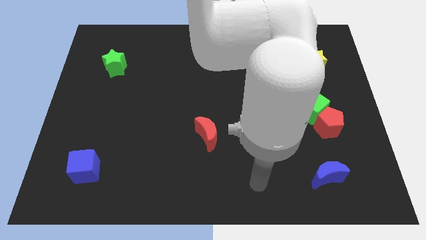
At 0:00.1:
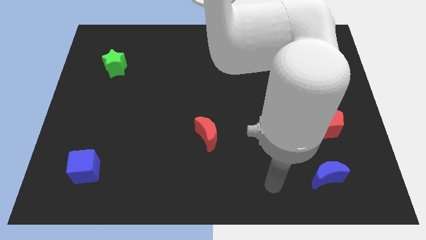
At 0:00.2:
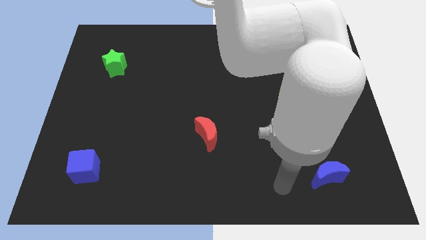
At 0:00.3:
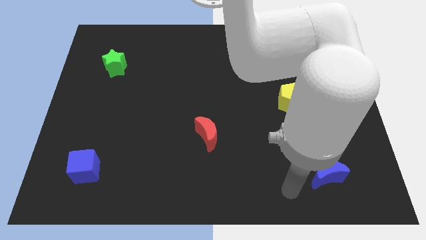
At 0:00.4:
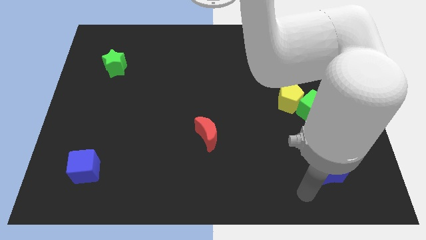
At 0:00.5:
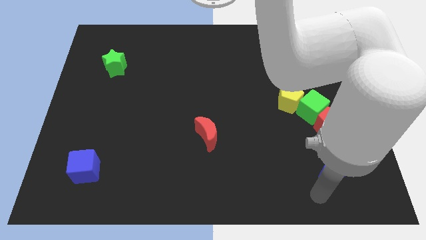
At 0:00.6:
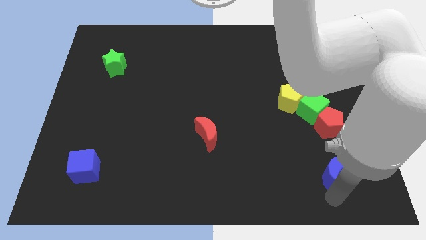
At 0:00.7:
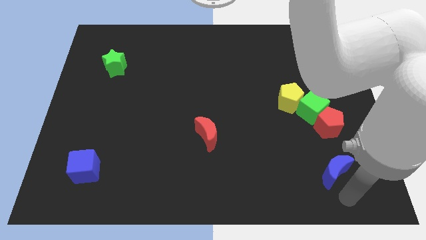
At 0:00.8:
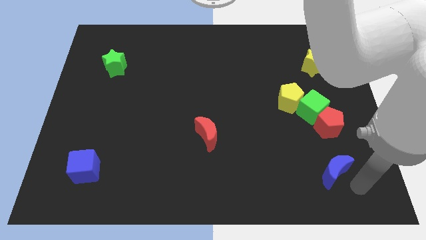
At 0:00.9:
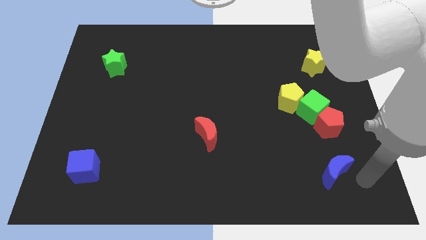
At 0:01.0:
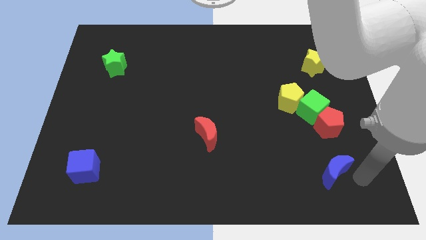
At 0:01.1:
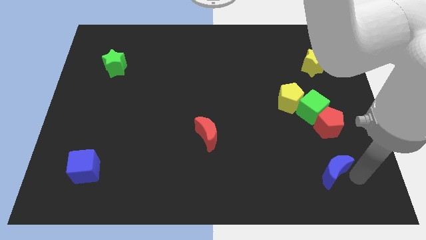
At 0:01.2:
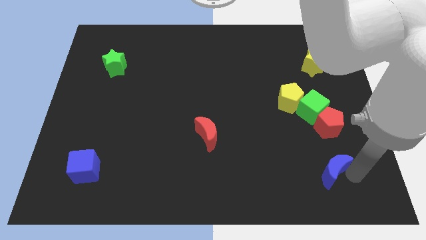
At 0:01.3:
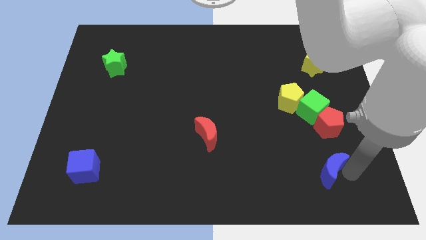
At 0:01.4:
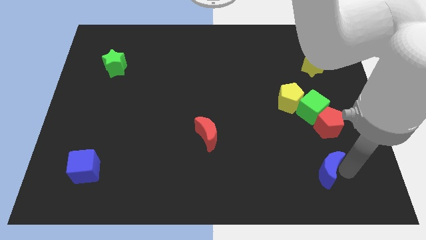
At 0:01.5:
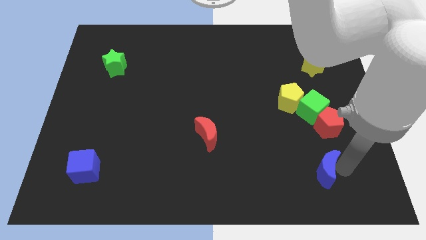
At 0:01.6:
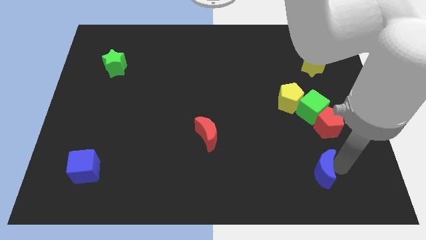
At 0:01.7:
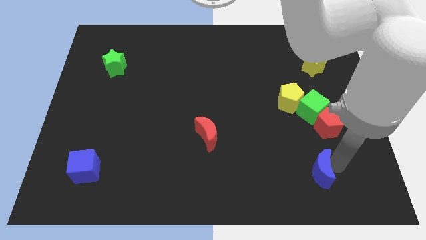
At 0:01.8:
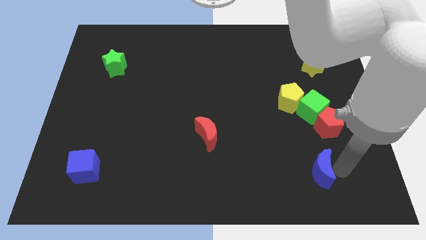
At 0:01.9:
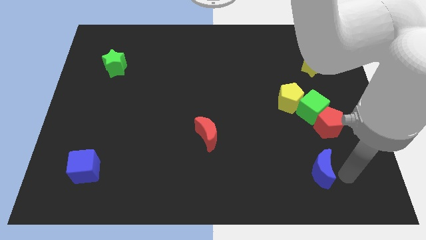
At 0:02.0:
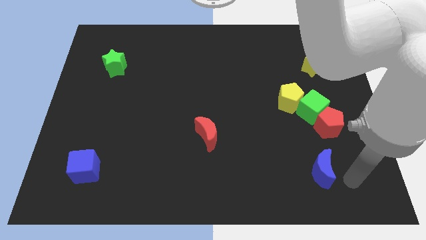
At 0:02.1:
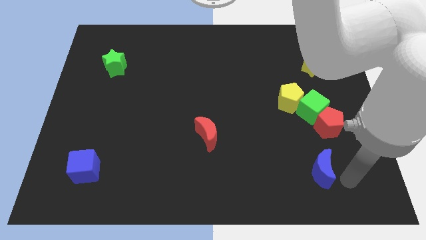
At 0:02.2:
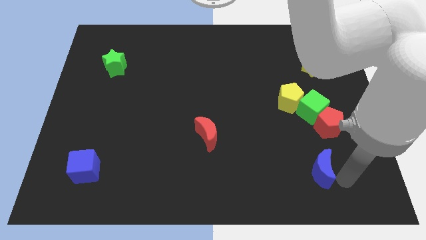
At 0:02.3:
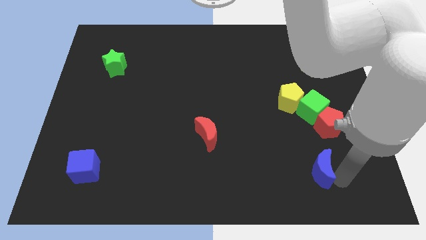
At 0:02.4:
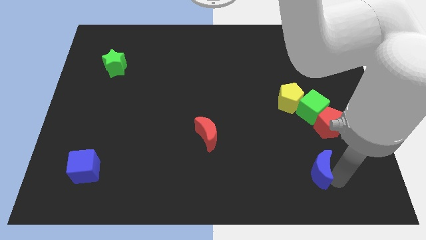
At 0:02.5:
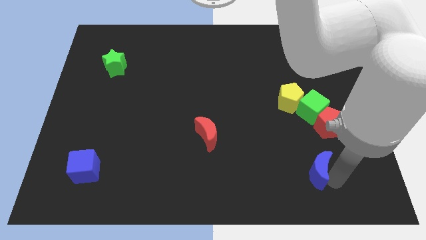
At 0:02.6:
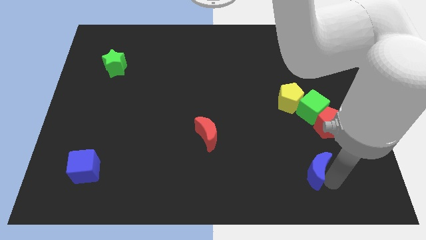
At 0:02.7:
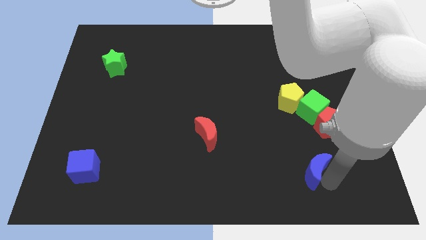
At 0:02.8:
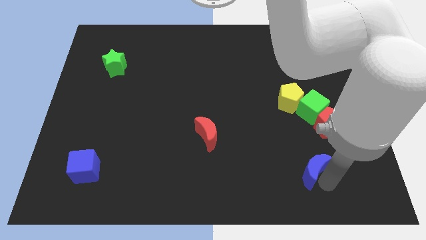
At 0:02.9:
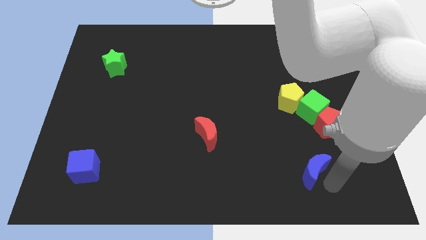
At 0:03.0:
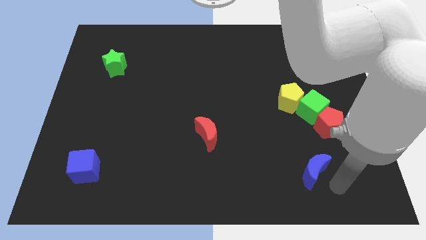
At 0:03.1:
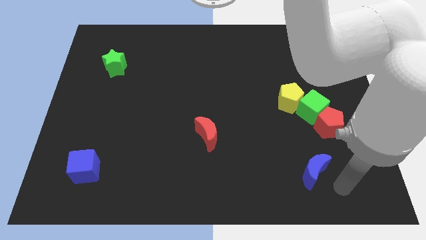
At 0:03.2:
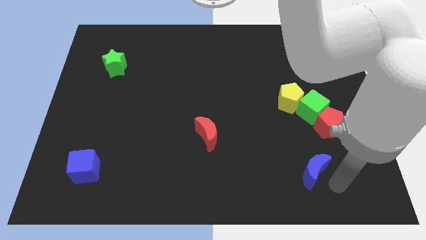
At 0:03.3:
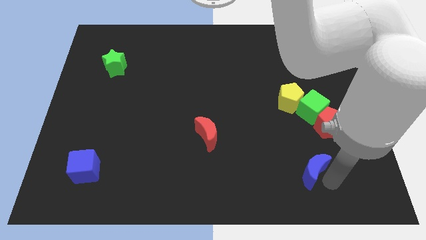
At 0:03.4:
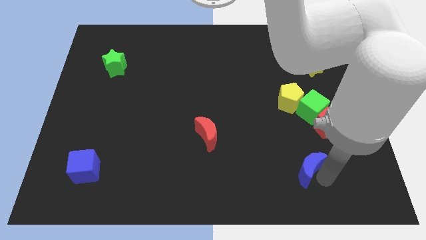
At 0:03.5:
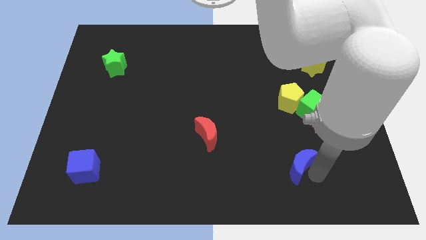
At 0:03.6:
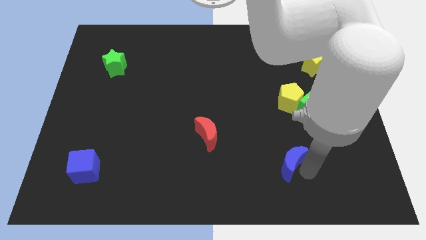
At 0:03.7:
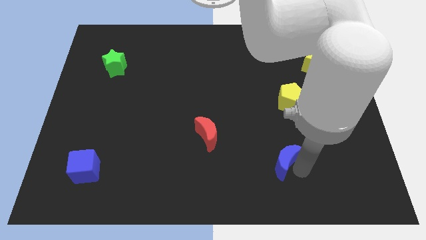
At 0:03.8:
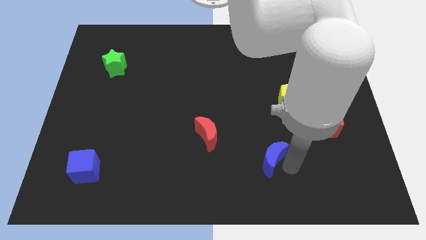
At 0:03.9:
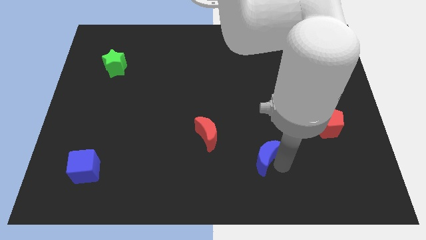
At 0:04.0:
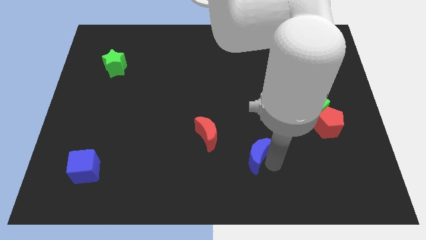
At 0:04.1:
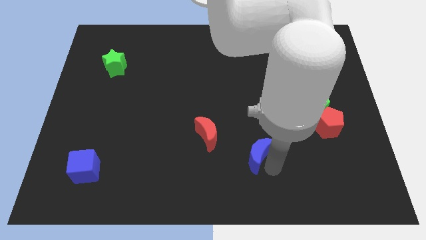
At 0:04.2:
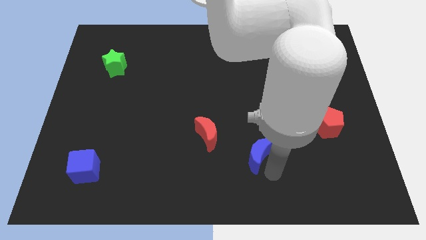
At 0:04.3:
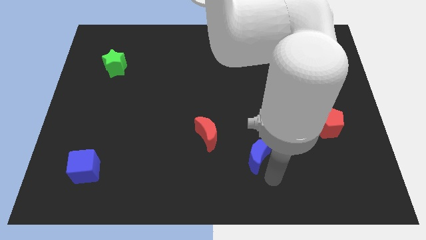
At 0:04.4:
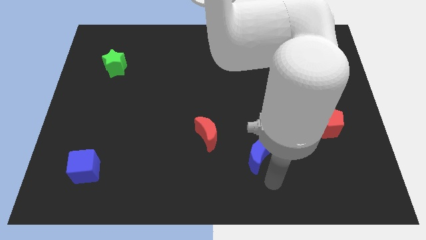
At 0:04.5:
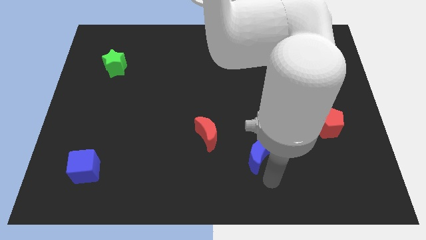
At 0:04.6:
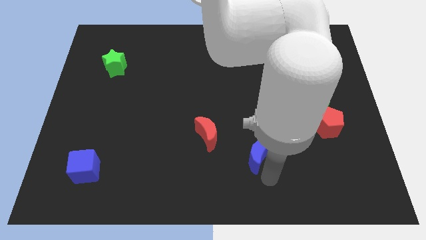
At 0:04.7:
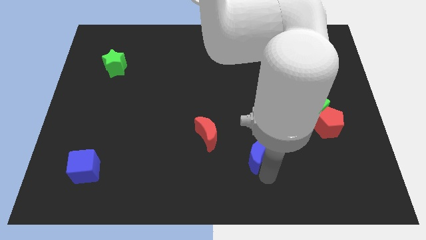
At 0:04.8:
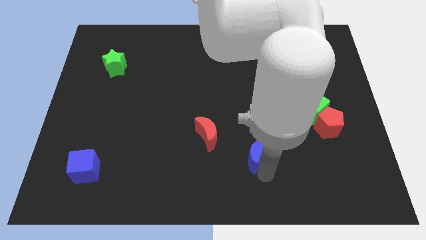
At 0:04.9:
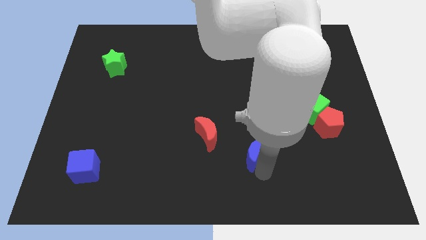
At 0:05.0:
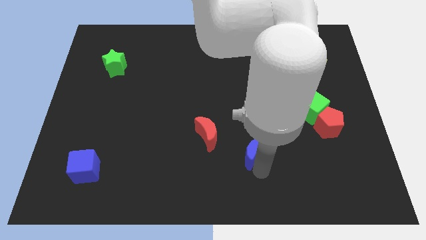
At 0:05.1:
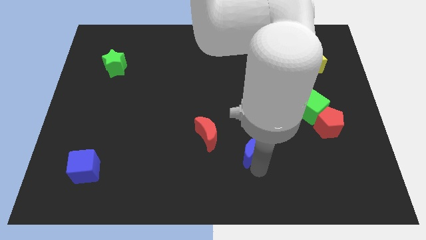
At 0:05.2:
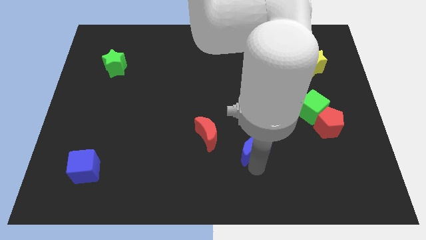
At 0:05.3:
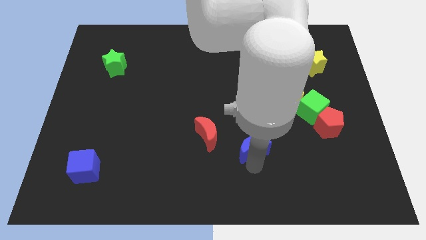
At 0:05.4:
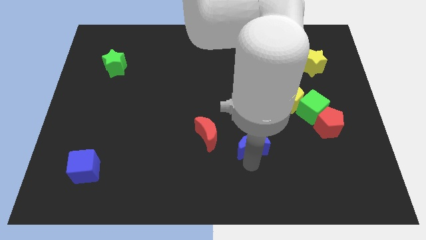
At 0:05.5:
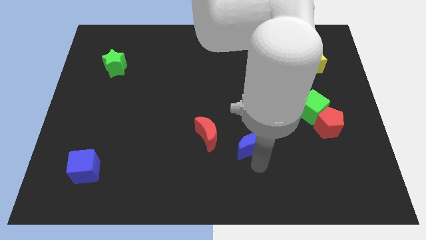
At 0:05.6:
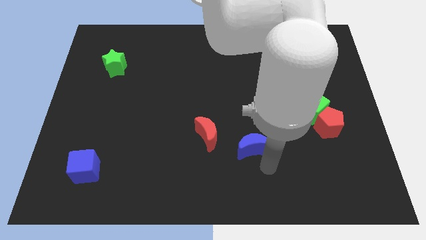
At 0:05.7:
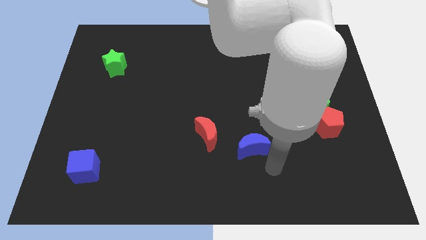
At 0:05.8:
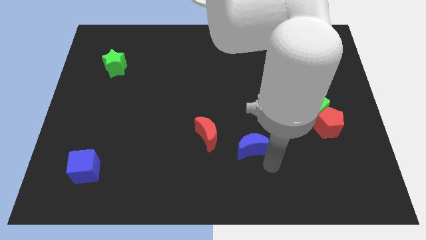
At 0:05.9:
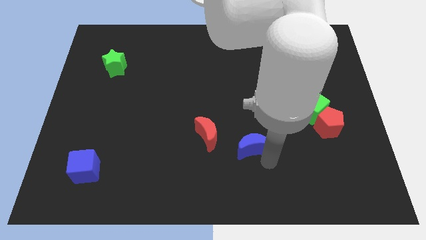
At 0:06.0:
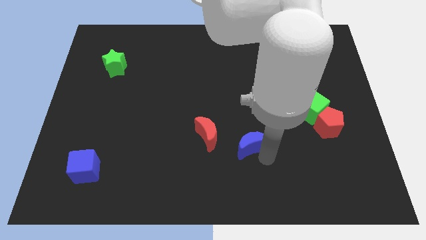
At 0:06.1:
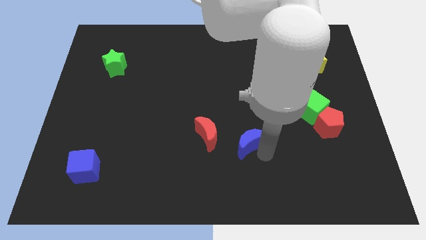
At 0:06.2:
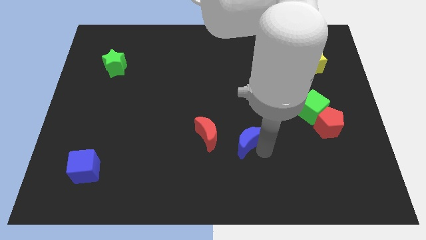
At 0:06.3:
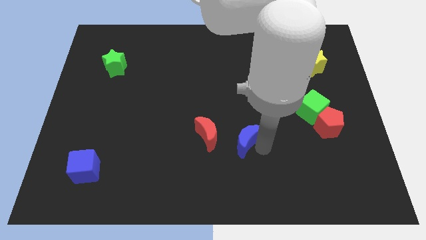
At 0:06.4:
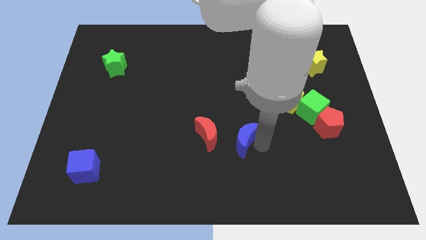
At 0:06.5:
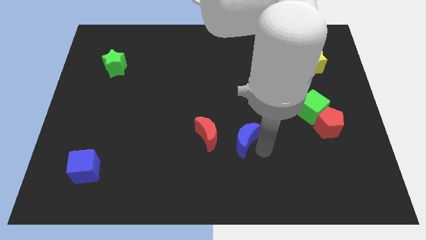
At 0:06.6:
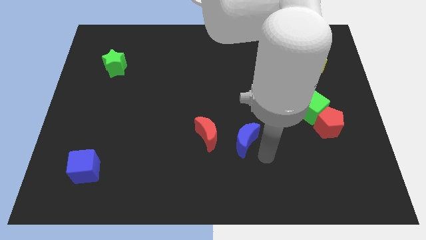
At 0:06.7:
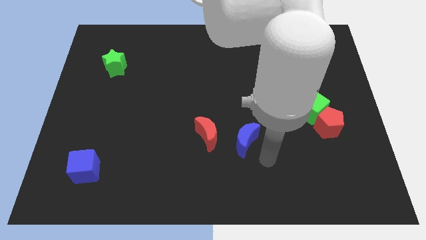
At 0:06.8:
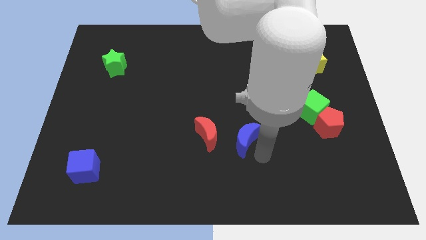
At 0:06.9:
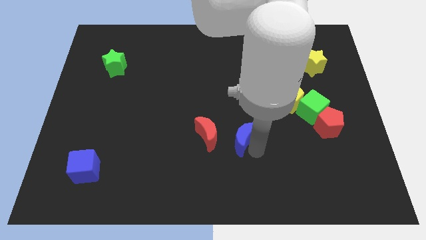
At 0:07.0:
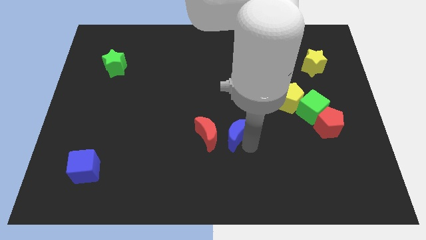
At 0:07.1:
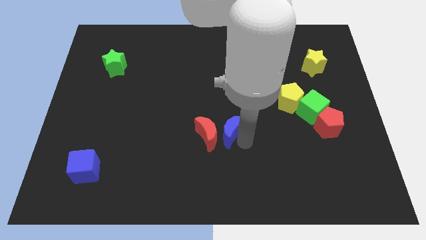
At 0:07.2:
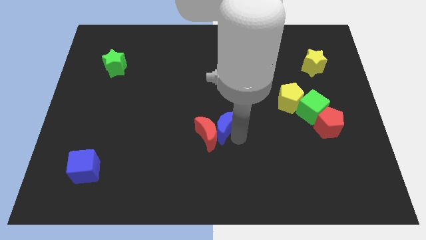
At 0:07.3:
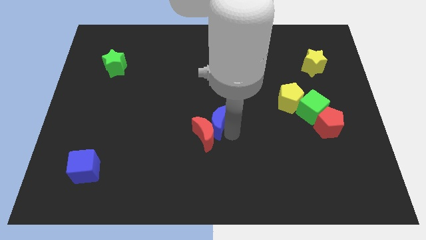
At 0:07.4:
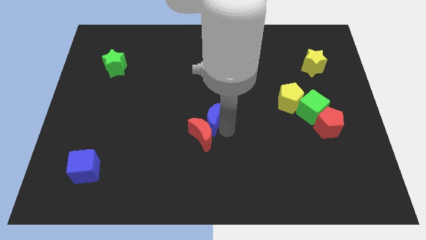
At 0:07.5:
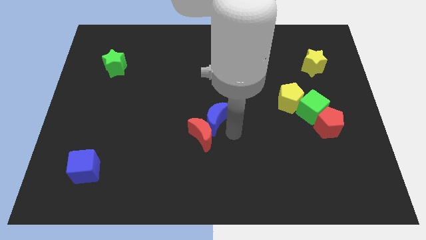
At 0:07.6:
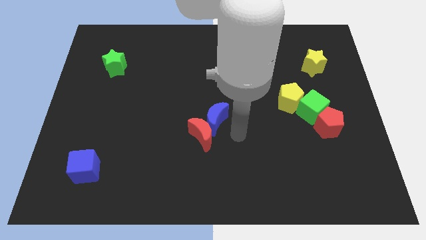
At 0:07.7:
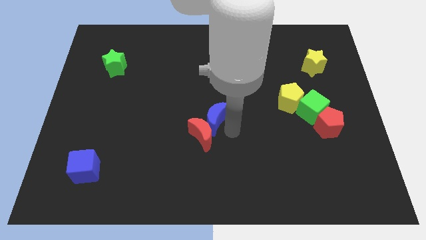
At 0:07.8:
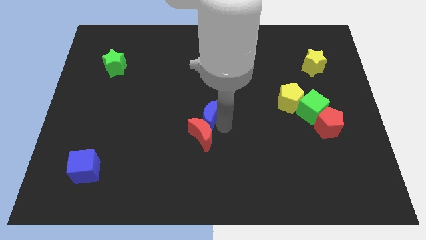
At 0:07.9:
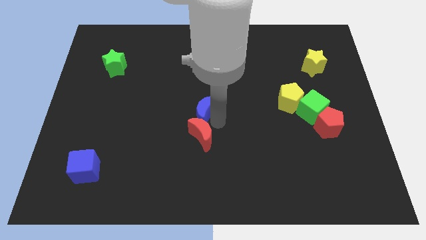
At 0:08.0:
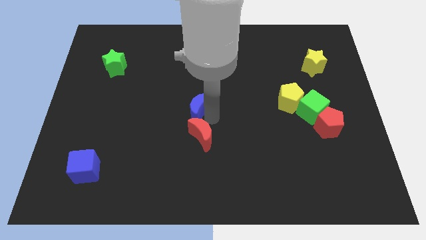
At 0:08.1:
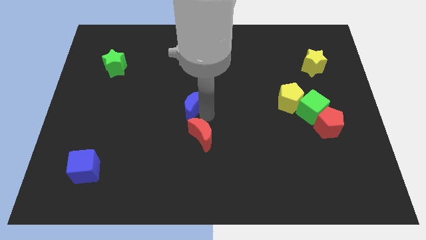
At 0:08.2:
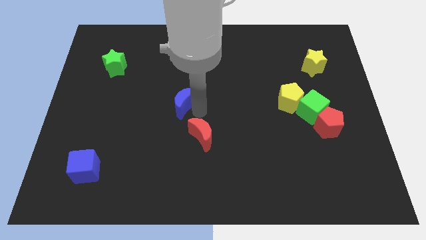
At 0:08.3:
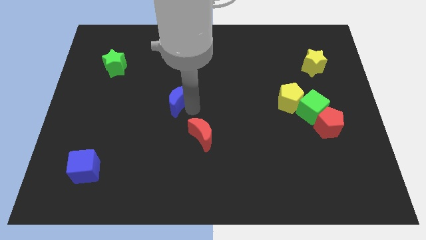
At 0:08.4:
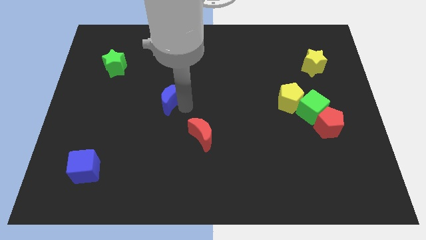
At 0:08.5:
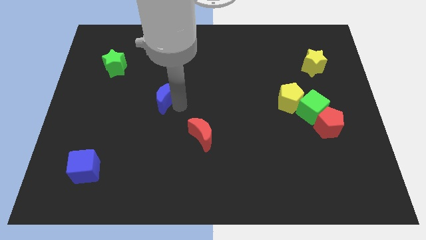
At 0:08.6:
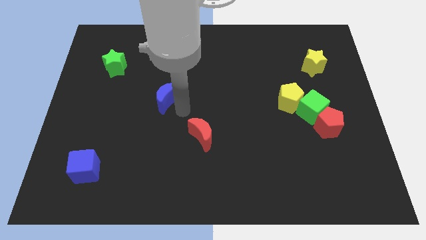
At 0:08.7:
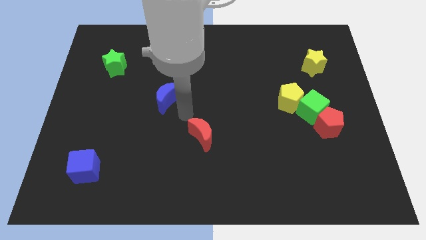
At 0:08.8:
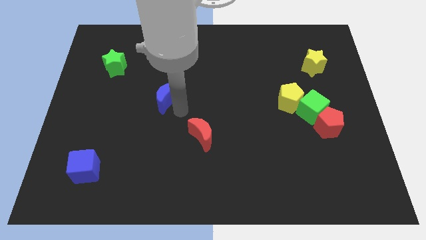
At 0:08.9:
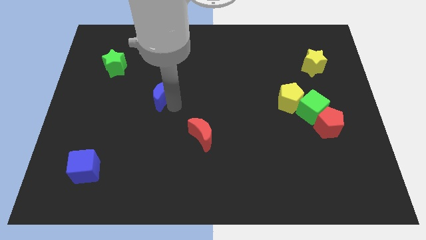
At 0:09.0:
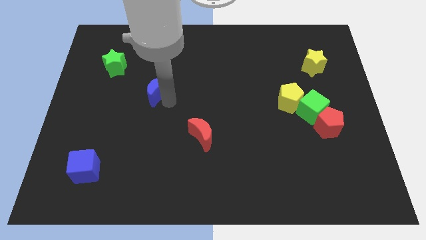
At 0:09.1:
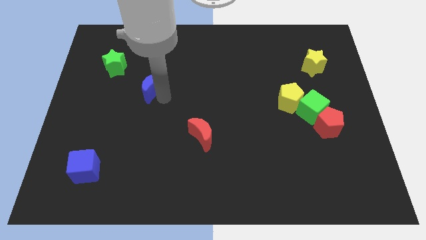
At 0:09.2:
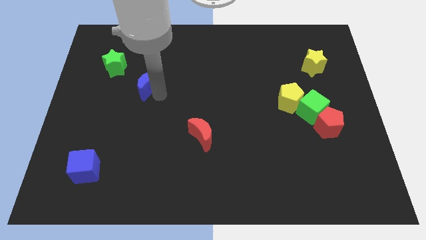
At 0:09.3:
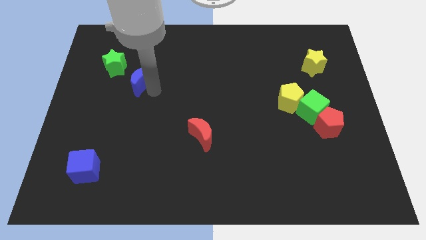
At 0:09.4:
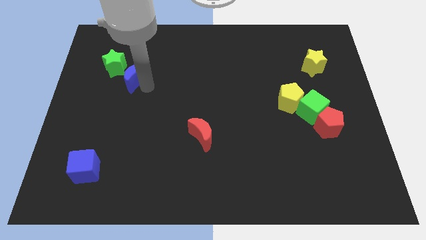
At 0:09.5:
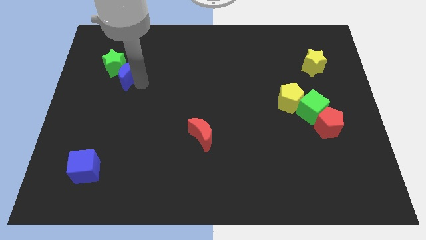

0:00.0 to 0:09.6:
push the blue moon next to the green star
